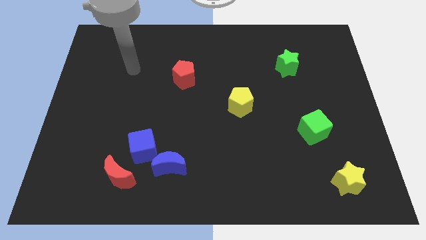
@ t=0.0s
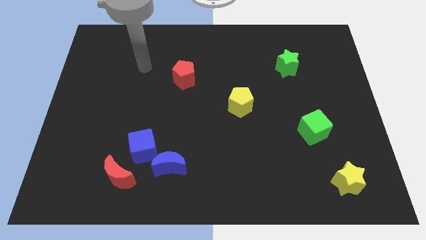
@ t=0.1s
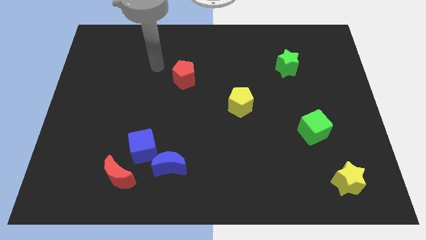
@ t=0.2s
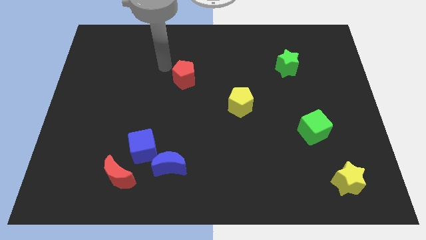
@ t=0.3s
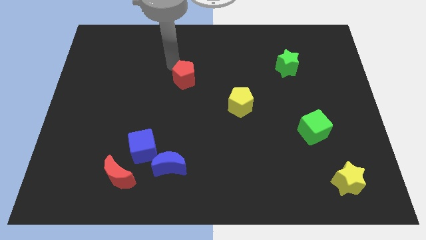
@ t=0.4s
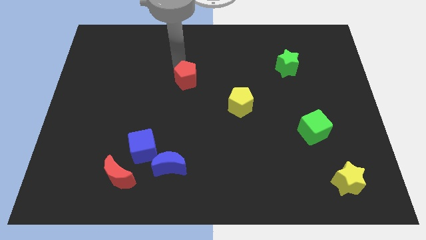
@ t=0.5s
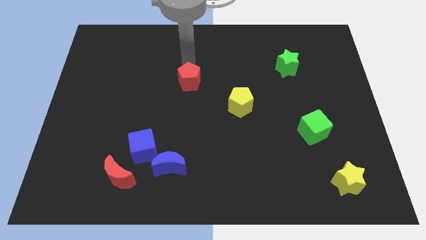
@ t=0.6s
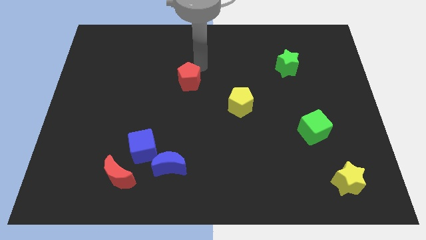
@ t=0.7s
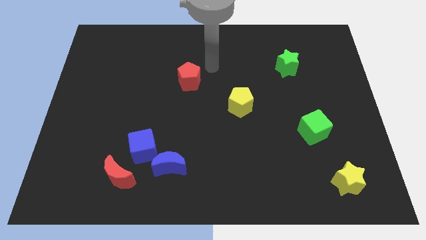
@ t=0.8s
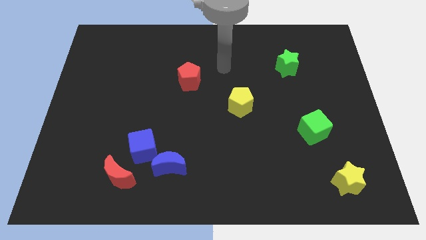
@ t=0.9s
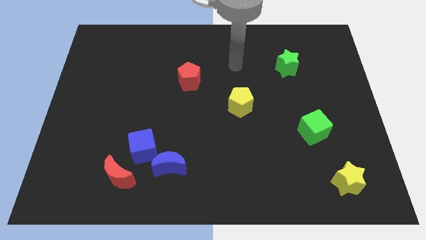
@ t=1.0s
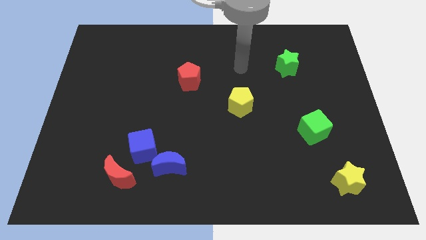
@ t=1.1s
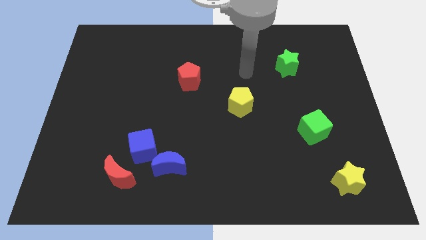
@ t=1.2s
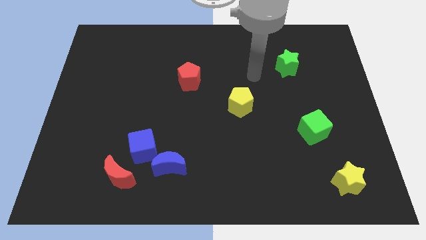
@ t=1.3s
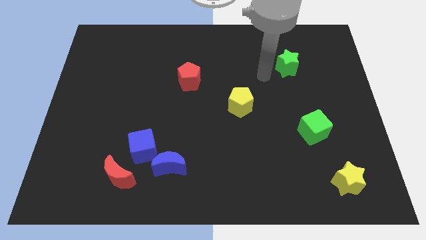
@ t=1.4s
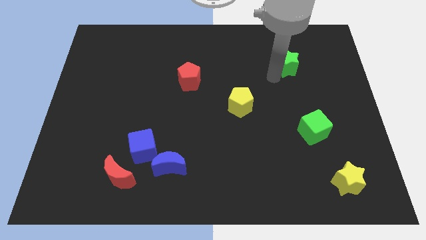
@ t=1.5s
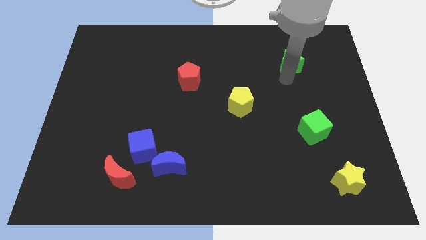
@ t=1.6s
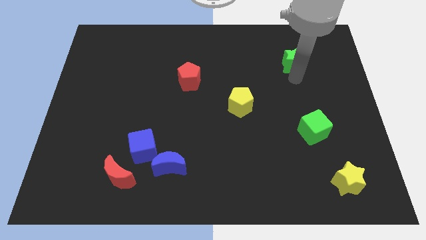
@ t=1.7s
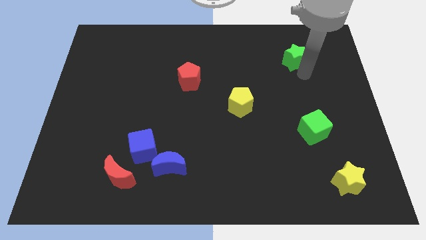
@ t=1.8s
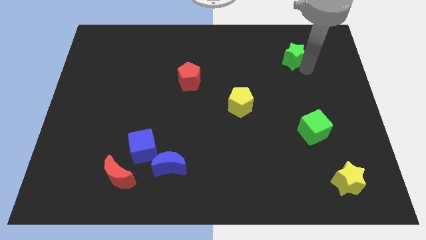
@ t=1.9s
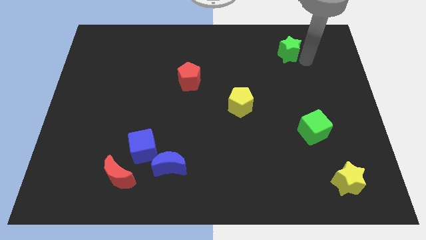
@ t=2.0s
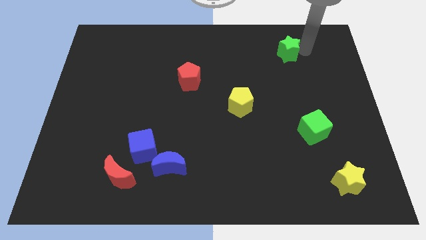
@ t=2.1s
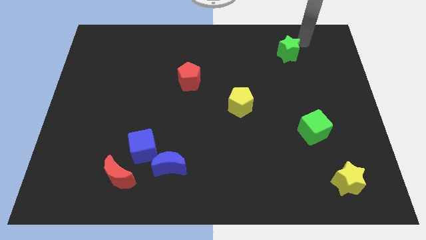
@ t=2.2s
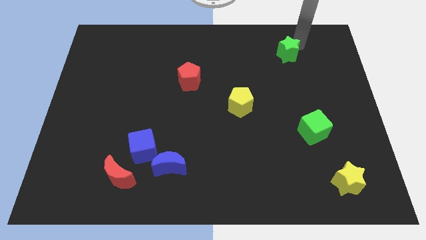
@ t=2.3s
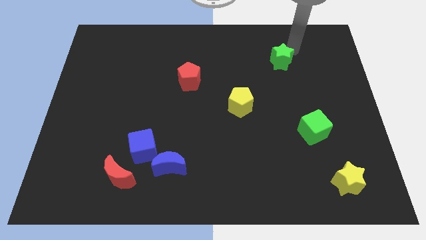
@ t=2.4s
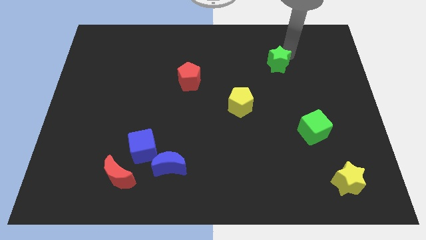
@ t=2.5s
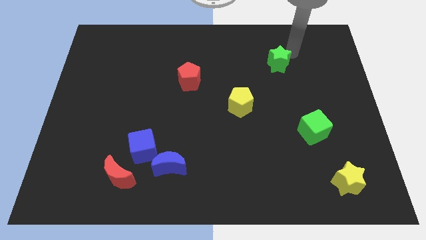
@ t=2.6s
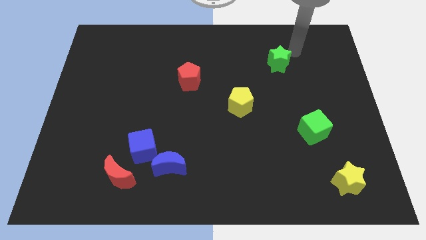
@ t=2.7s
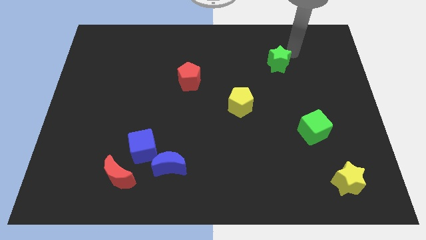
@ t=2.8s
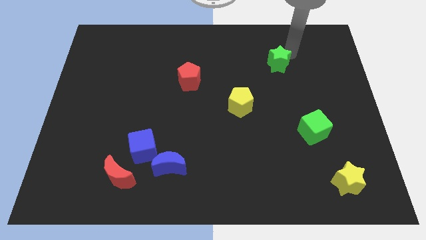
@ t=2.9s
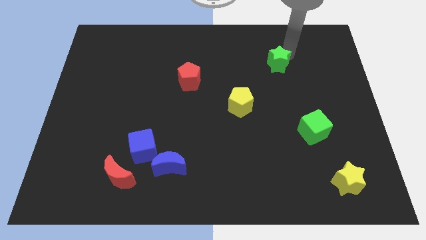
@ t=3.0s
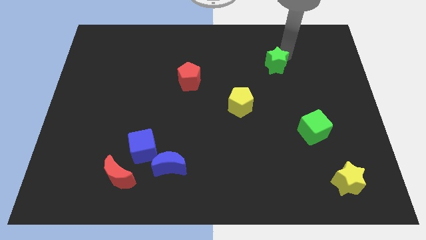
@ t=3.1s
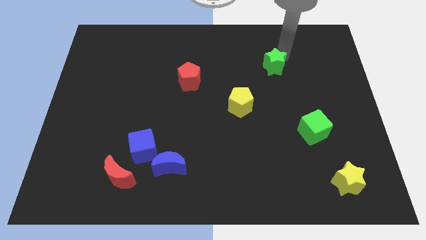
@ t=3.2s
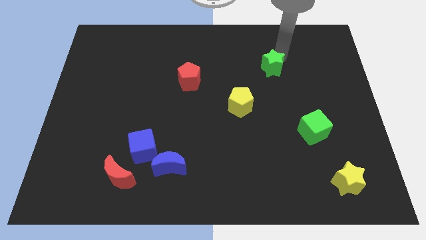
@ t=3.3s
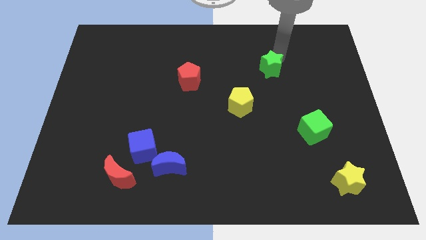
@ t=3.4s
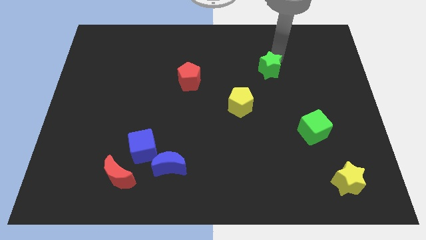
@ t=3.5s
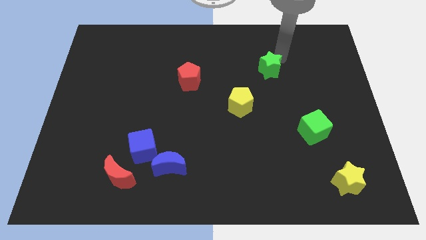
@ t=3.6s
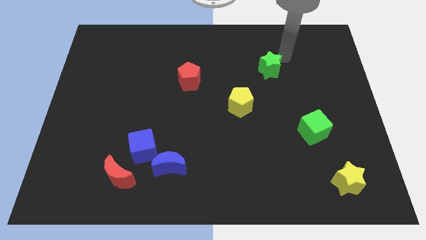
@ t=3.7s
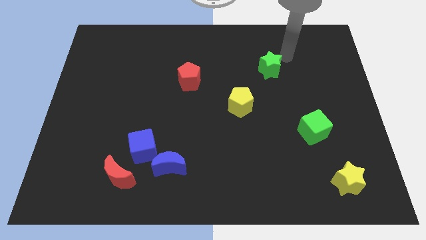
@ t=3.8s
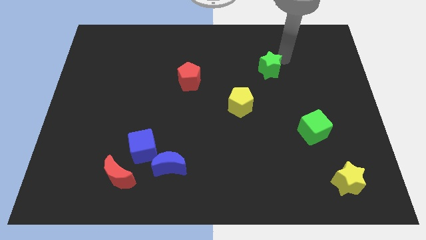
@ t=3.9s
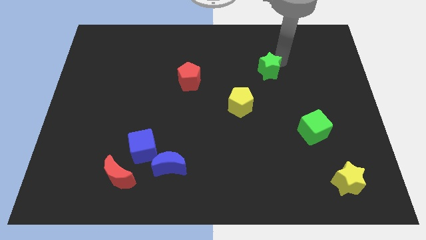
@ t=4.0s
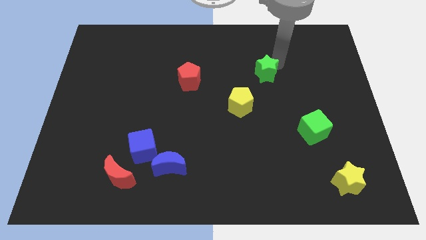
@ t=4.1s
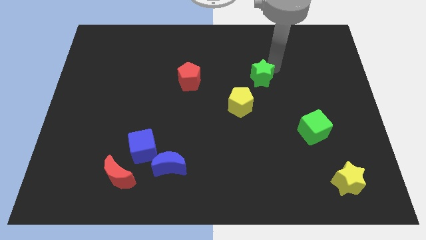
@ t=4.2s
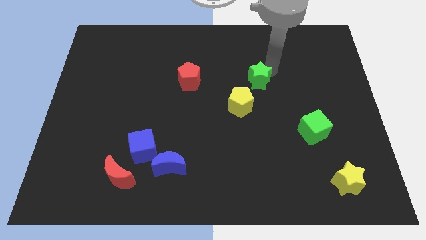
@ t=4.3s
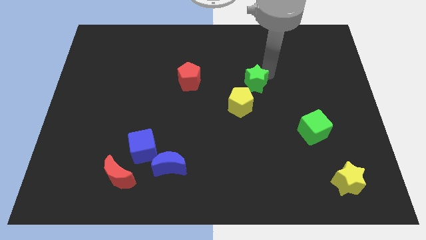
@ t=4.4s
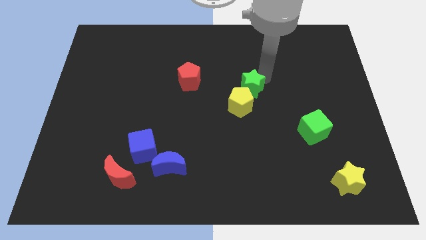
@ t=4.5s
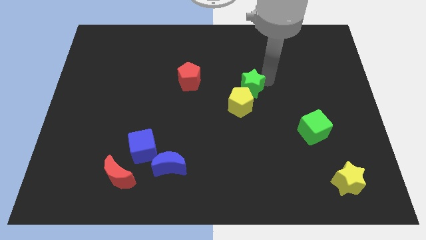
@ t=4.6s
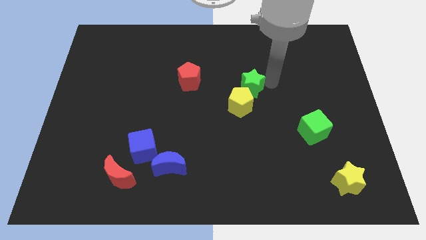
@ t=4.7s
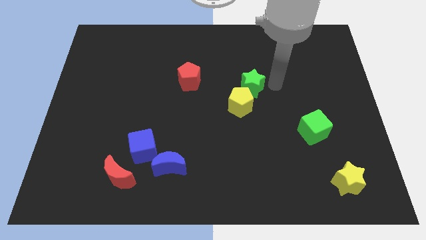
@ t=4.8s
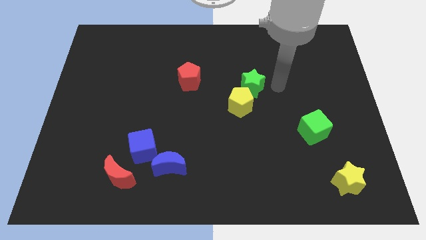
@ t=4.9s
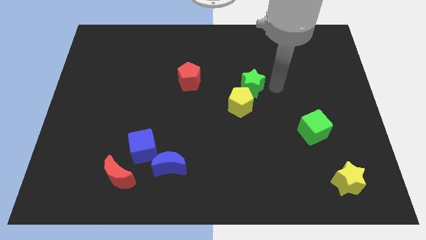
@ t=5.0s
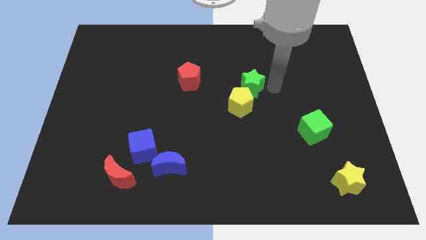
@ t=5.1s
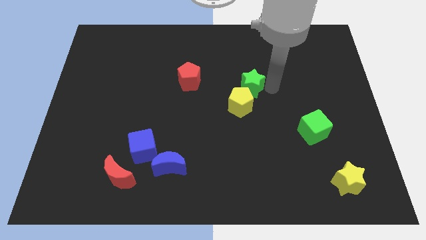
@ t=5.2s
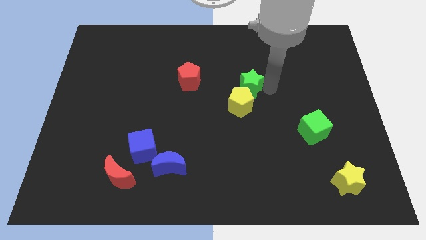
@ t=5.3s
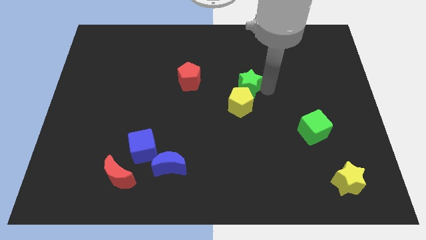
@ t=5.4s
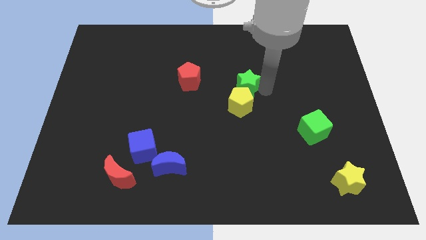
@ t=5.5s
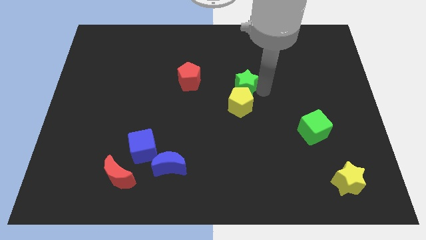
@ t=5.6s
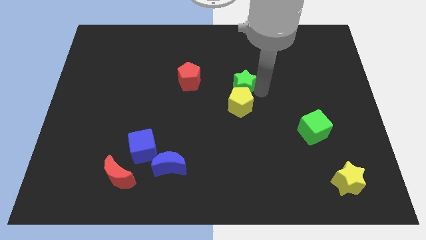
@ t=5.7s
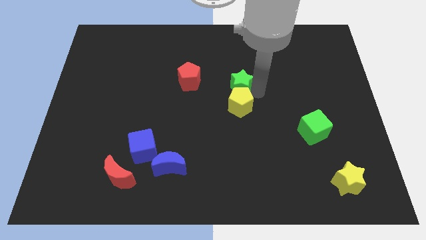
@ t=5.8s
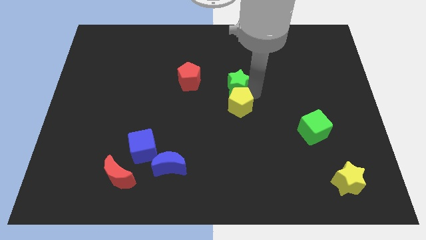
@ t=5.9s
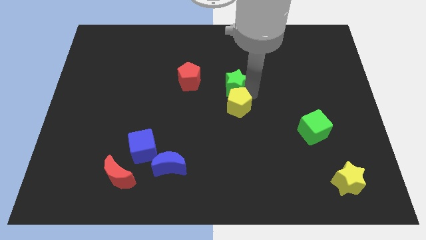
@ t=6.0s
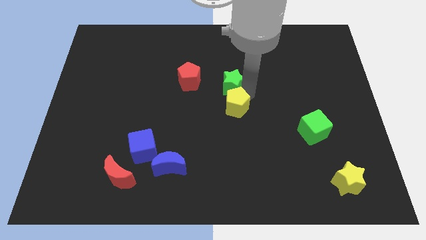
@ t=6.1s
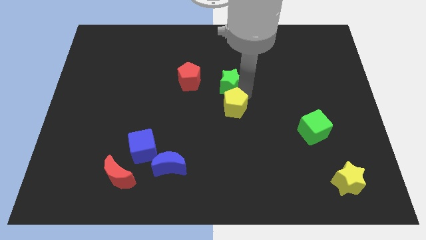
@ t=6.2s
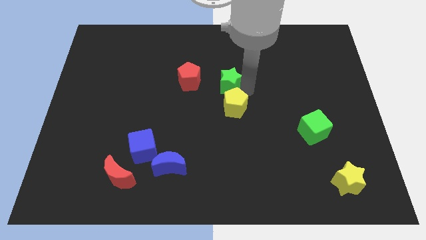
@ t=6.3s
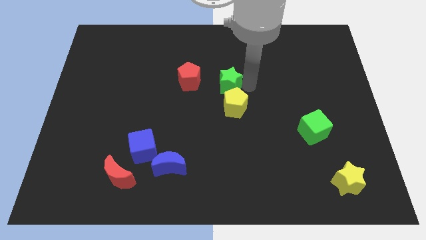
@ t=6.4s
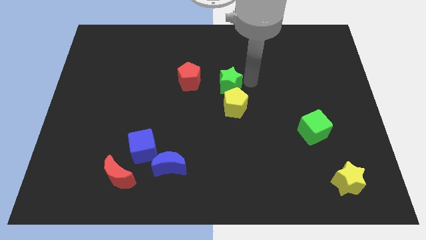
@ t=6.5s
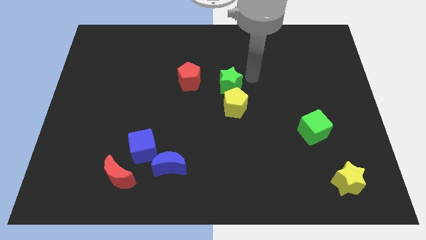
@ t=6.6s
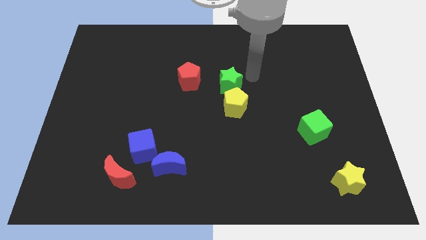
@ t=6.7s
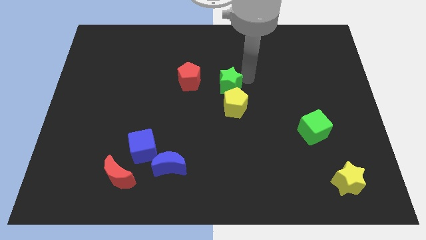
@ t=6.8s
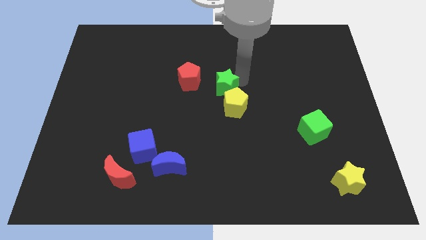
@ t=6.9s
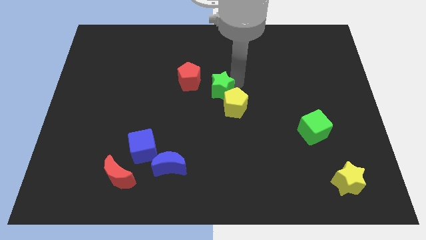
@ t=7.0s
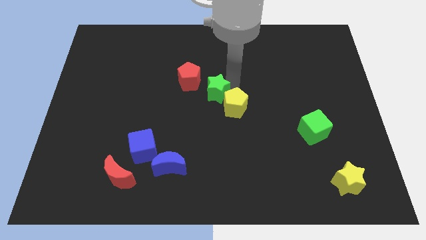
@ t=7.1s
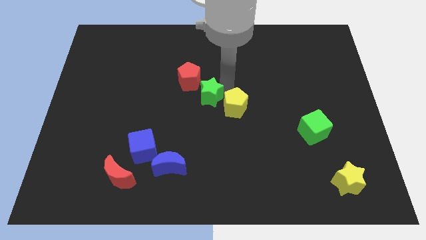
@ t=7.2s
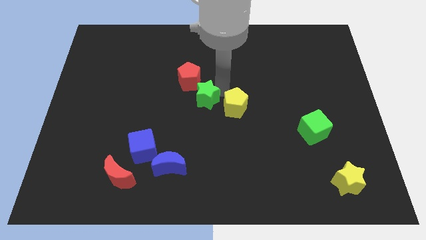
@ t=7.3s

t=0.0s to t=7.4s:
slide the green star below the red pentagon
